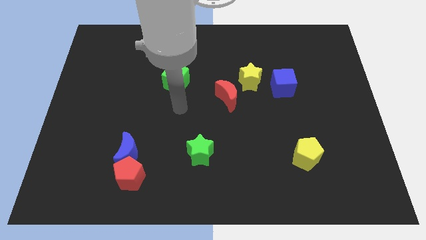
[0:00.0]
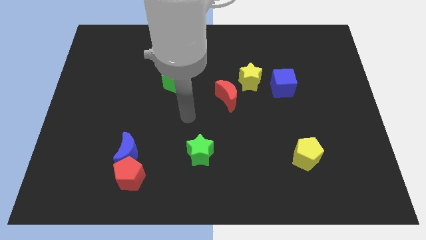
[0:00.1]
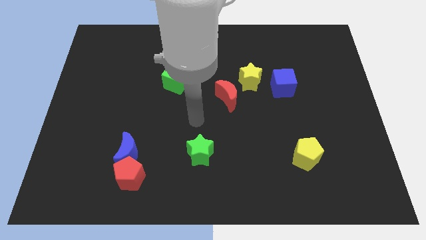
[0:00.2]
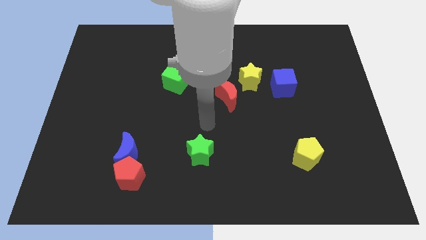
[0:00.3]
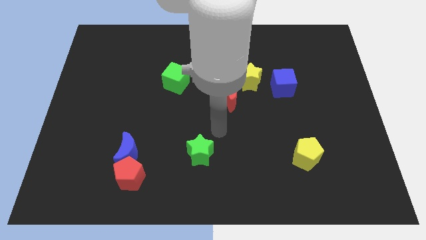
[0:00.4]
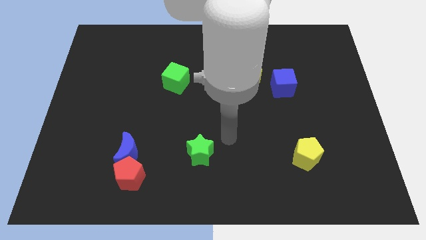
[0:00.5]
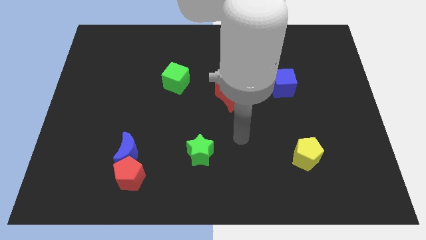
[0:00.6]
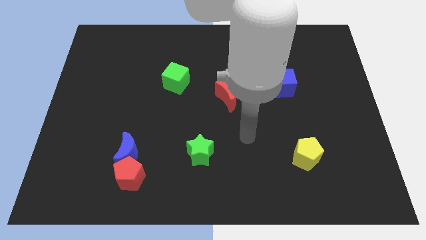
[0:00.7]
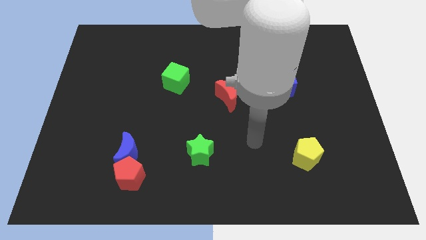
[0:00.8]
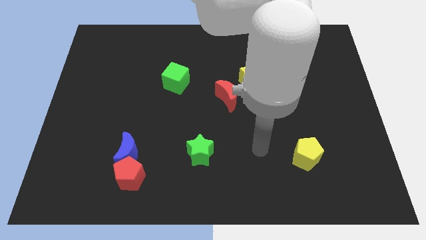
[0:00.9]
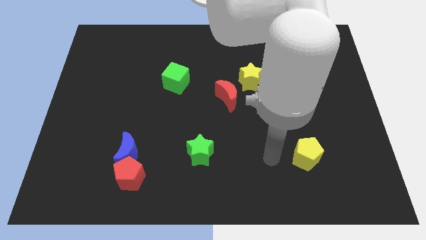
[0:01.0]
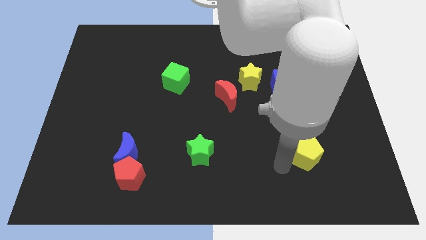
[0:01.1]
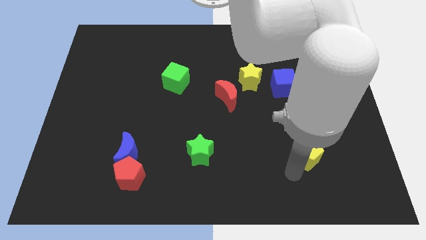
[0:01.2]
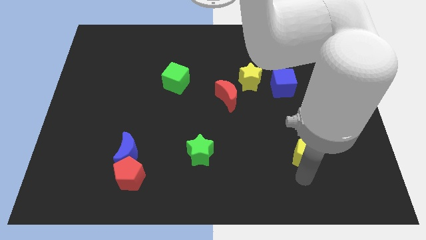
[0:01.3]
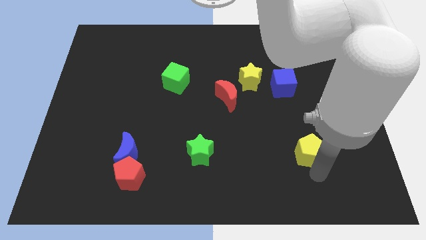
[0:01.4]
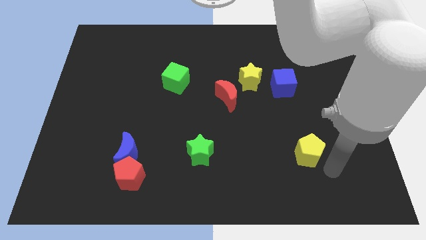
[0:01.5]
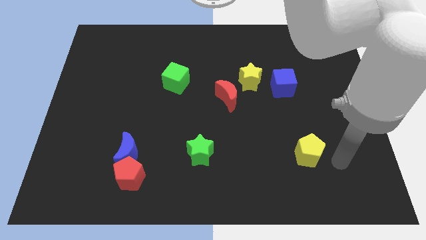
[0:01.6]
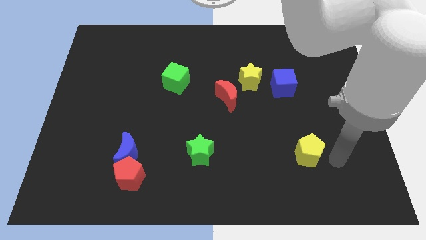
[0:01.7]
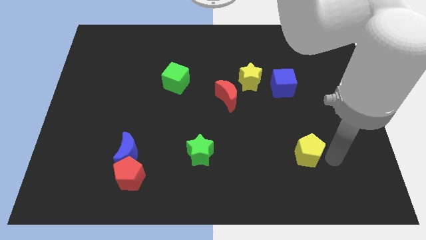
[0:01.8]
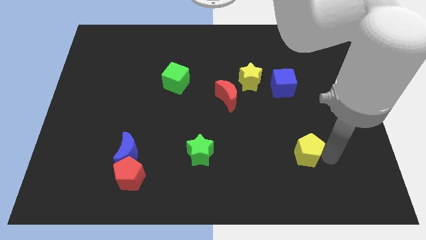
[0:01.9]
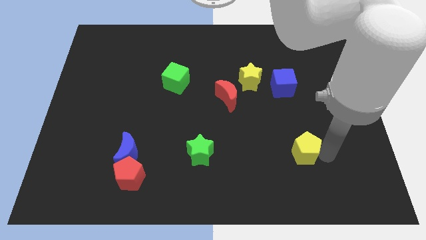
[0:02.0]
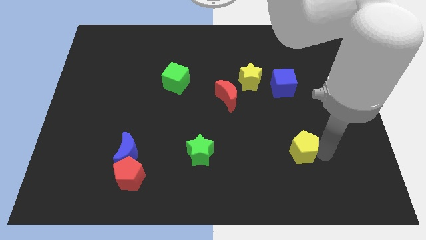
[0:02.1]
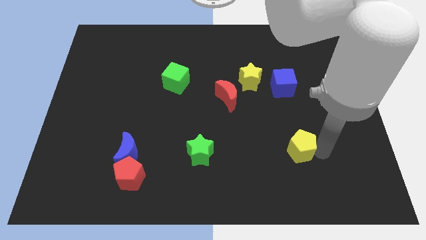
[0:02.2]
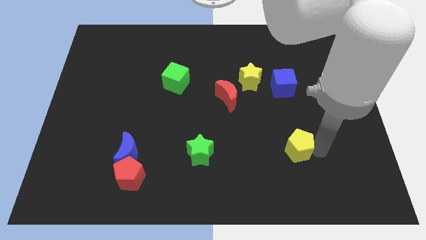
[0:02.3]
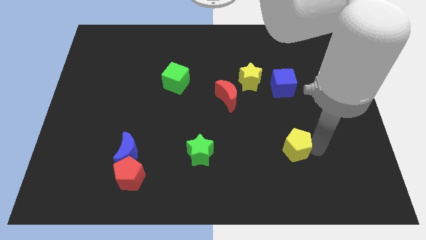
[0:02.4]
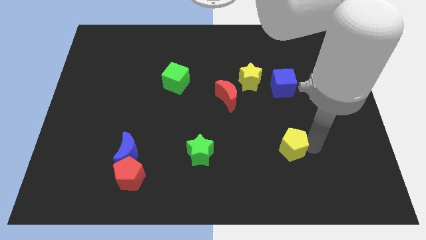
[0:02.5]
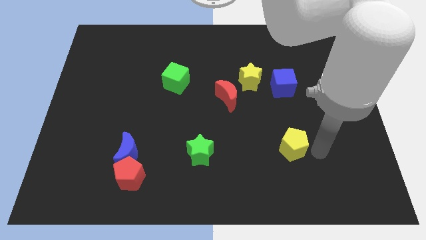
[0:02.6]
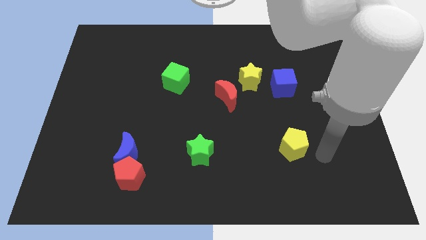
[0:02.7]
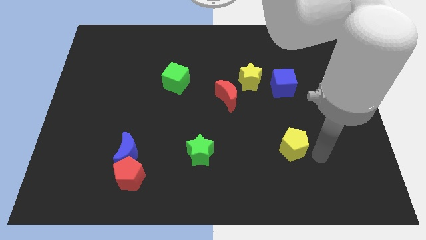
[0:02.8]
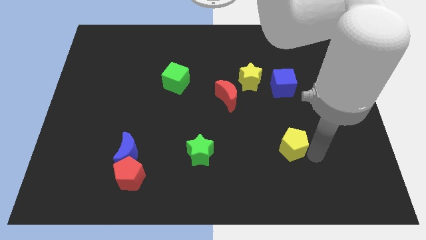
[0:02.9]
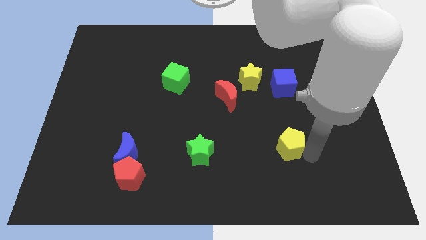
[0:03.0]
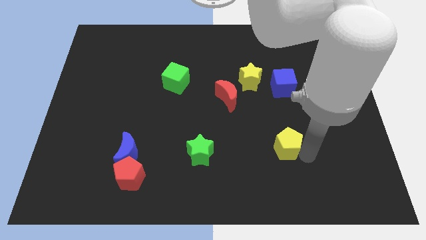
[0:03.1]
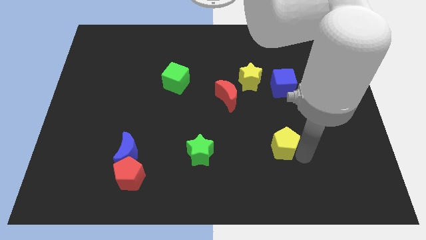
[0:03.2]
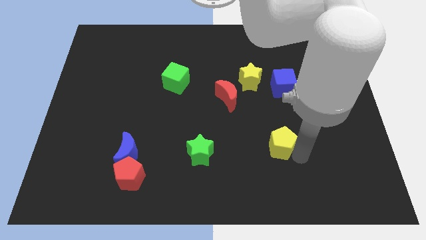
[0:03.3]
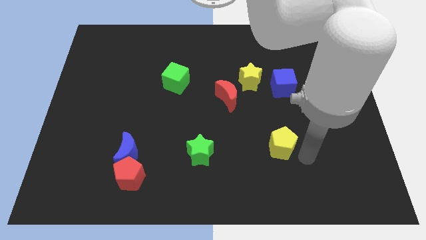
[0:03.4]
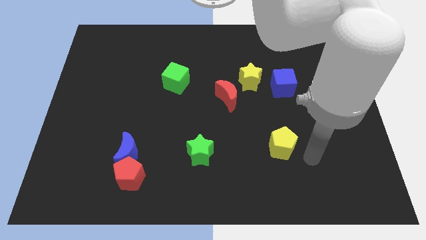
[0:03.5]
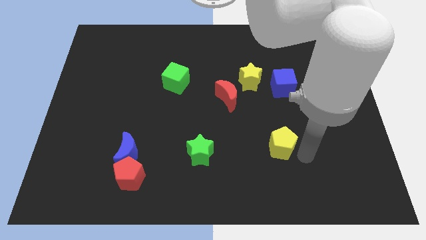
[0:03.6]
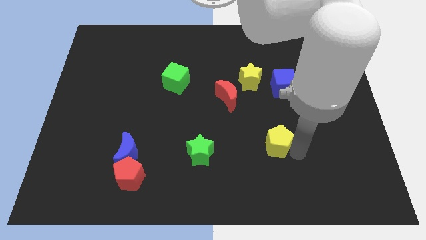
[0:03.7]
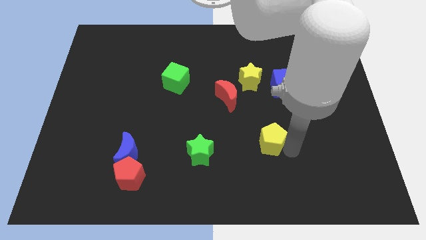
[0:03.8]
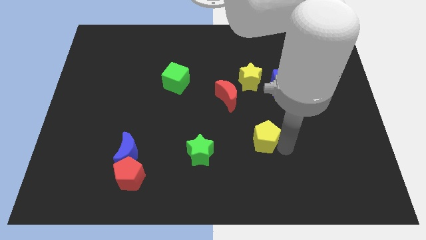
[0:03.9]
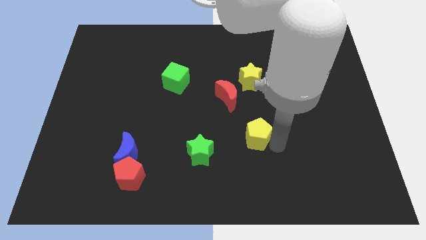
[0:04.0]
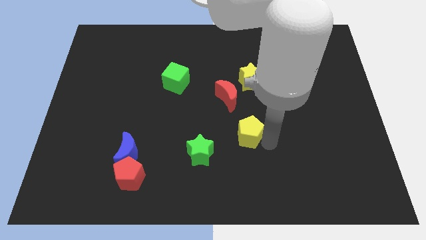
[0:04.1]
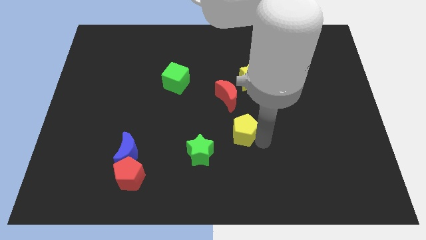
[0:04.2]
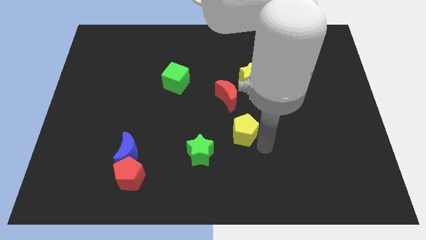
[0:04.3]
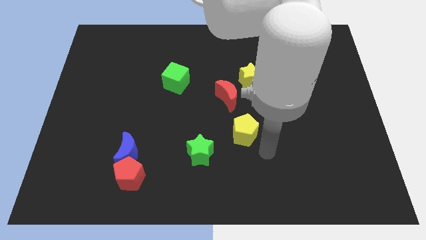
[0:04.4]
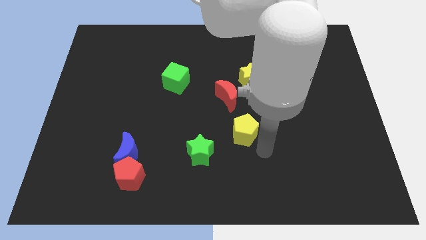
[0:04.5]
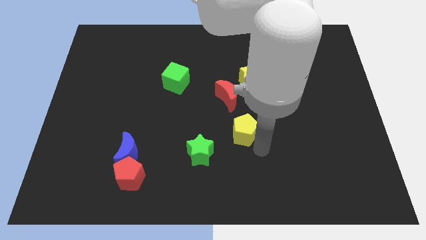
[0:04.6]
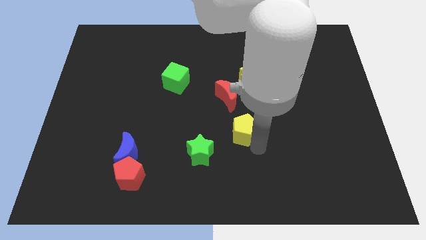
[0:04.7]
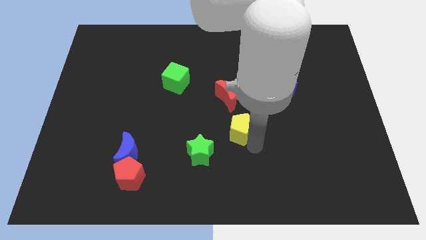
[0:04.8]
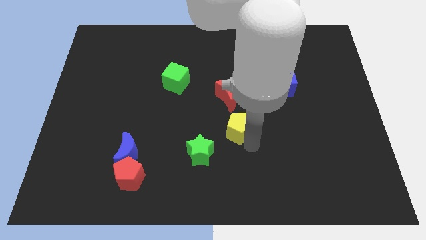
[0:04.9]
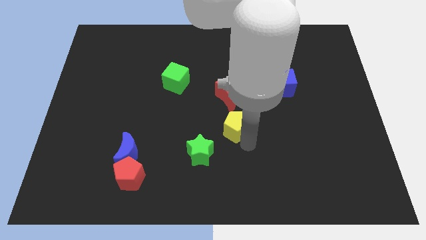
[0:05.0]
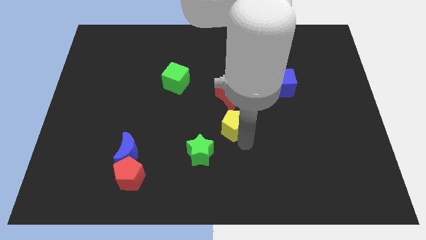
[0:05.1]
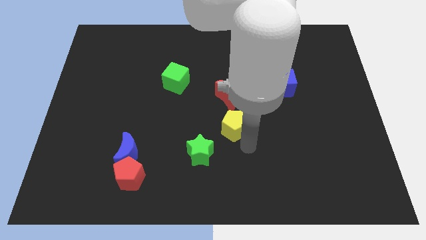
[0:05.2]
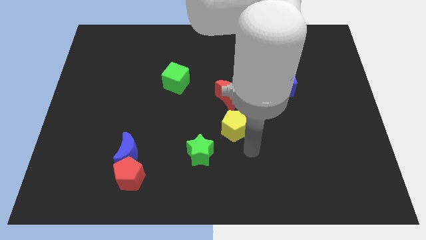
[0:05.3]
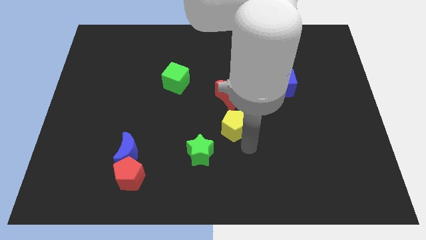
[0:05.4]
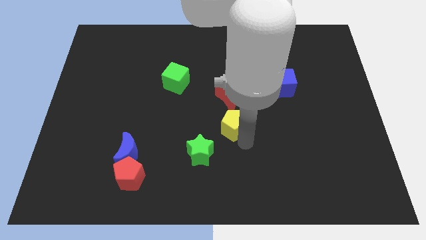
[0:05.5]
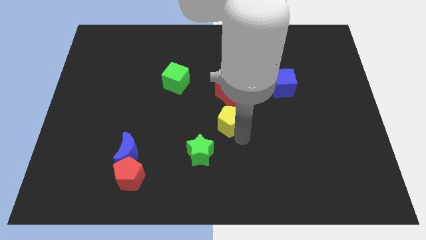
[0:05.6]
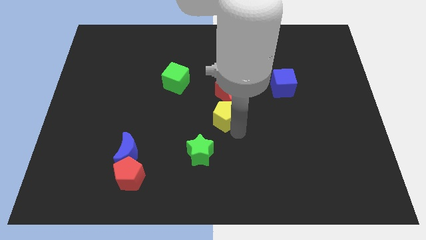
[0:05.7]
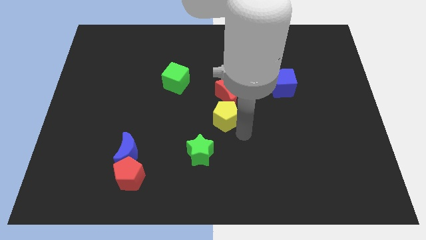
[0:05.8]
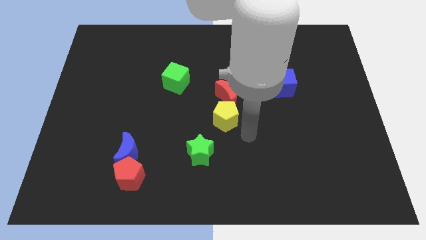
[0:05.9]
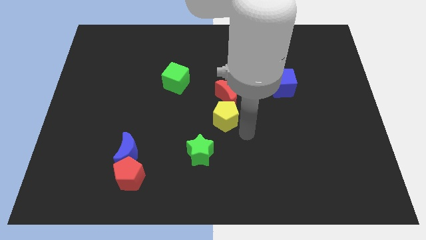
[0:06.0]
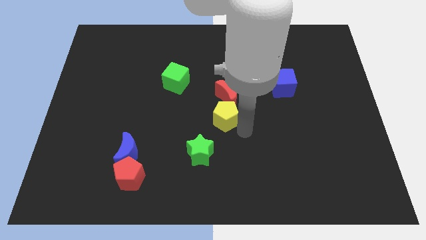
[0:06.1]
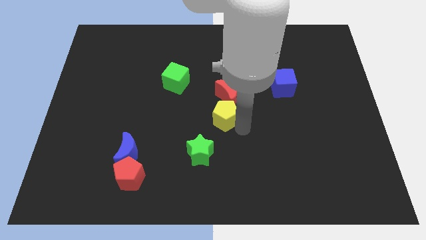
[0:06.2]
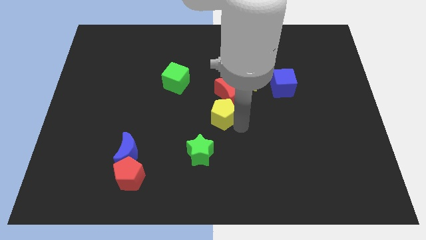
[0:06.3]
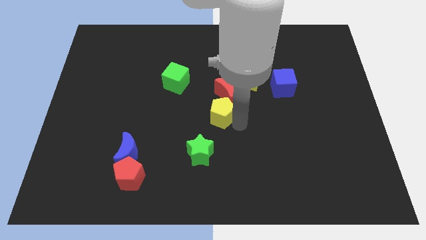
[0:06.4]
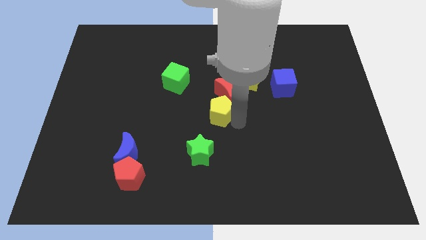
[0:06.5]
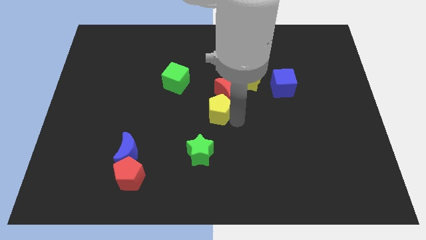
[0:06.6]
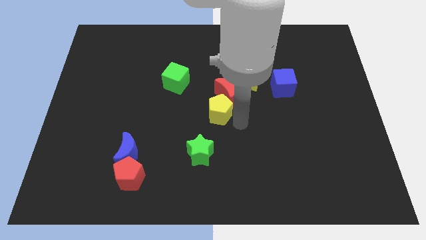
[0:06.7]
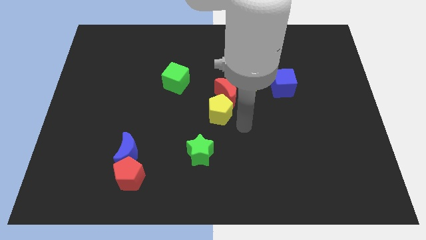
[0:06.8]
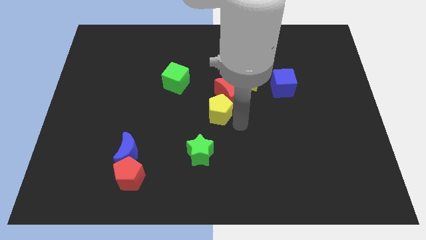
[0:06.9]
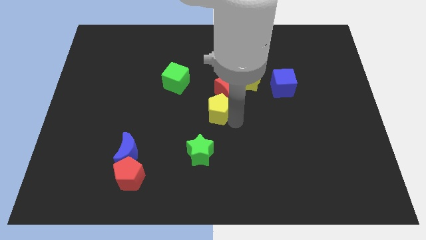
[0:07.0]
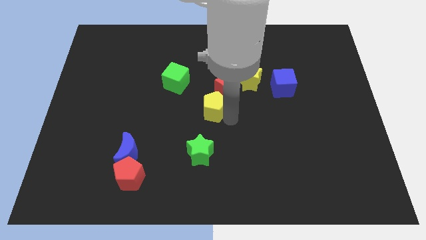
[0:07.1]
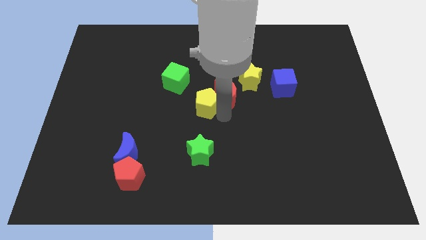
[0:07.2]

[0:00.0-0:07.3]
move the yellow pentagon to the bottom right of the green cube
